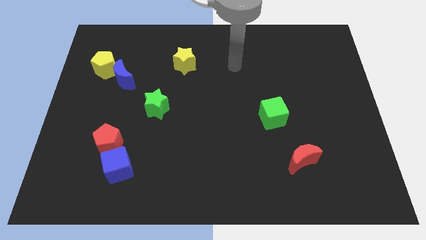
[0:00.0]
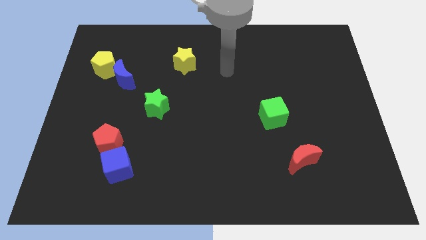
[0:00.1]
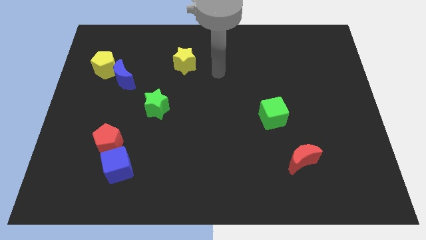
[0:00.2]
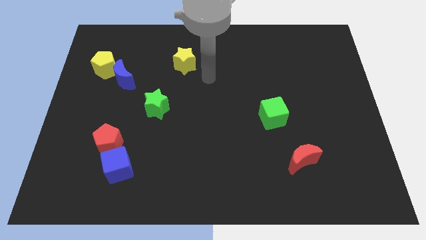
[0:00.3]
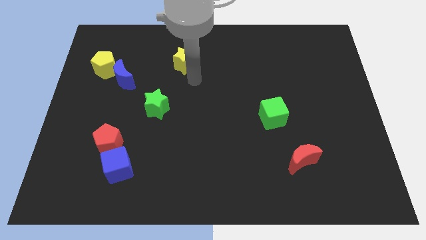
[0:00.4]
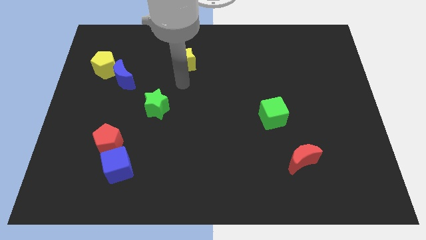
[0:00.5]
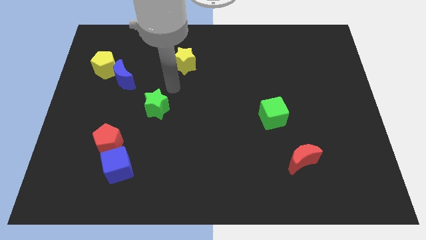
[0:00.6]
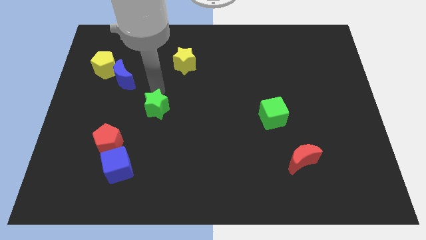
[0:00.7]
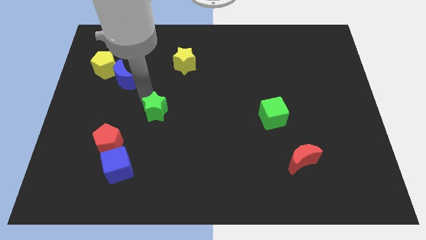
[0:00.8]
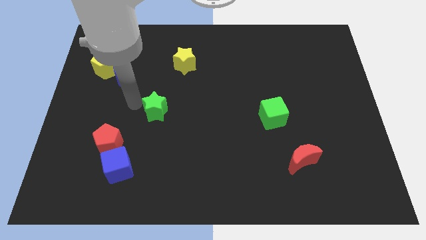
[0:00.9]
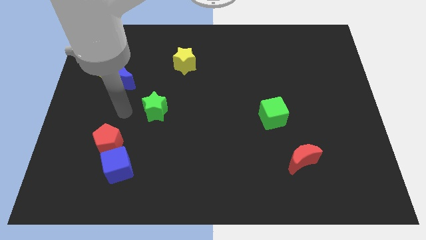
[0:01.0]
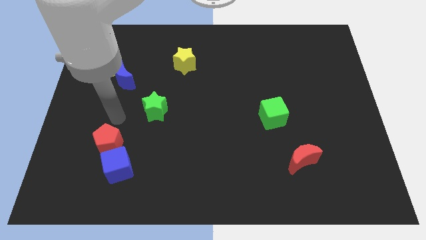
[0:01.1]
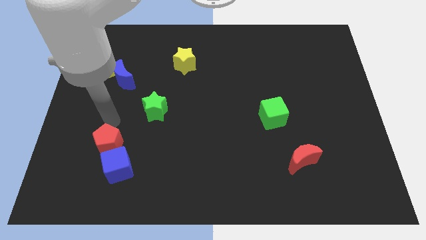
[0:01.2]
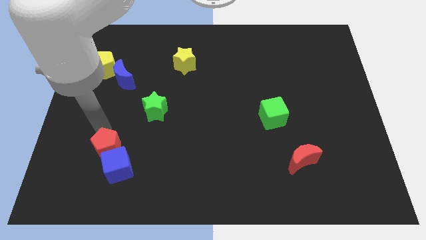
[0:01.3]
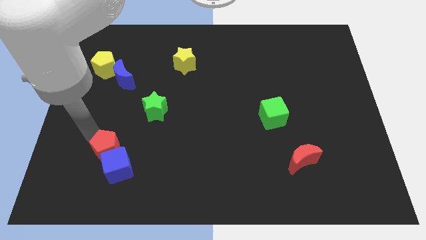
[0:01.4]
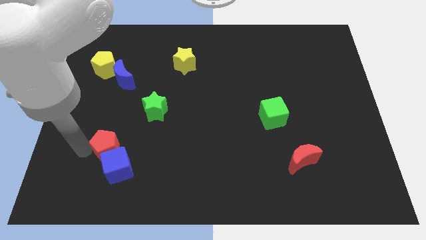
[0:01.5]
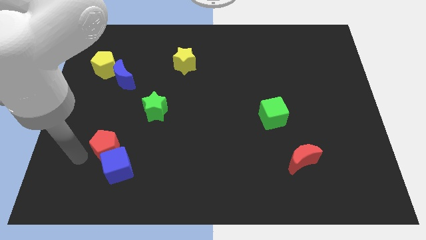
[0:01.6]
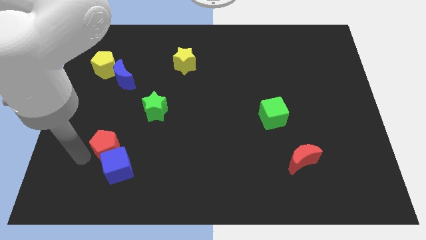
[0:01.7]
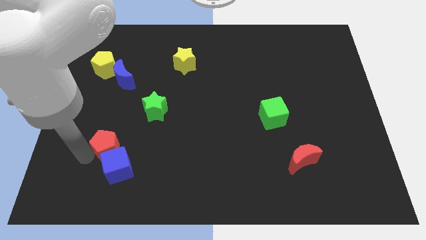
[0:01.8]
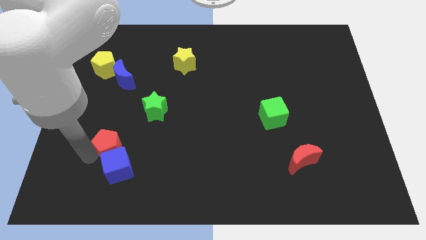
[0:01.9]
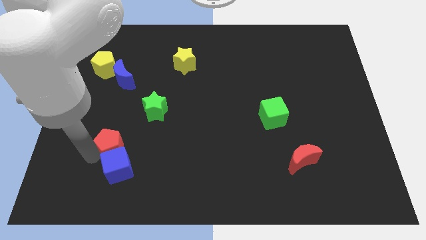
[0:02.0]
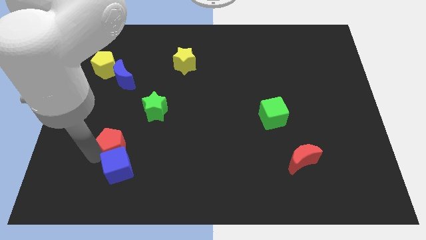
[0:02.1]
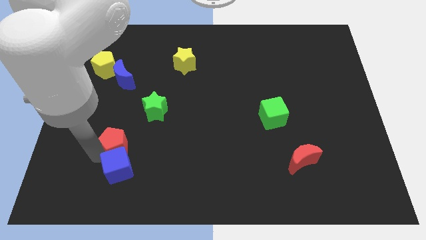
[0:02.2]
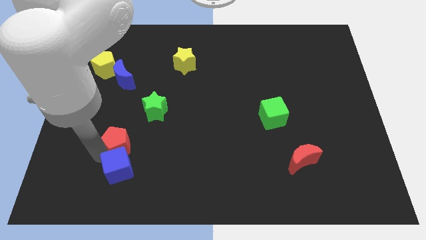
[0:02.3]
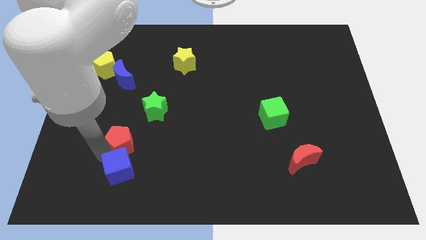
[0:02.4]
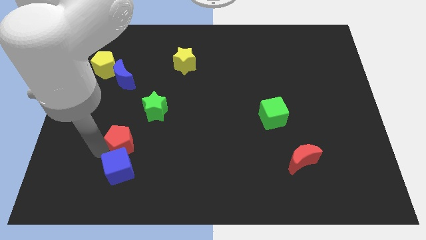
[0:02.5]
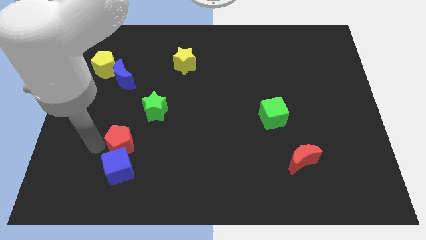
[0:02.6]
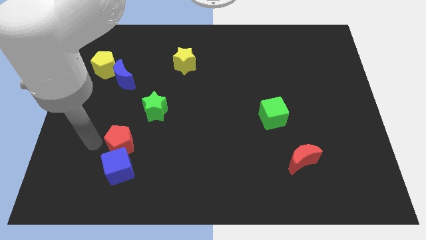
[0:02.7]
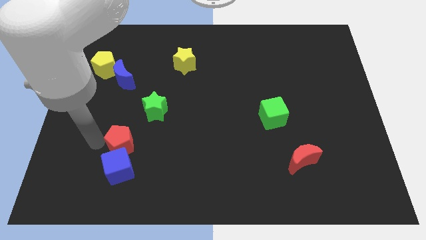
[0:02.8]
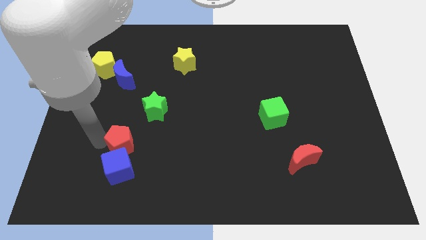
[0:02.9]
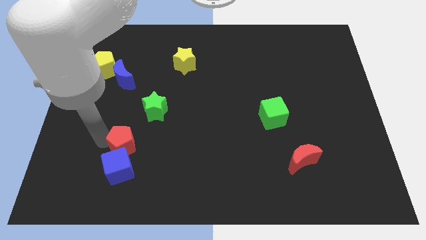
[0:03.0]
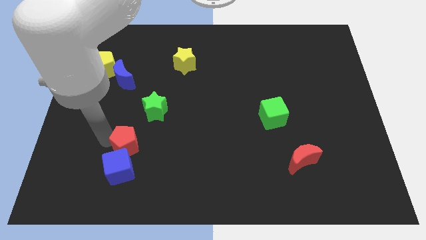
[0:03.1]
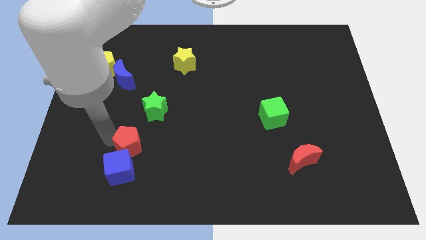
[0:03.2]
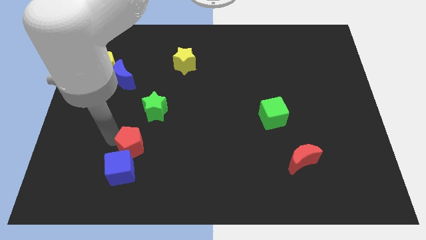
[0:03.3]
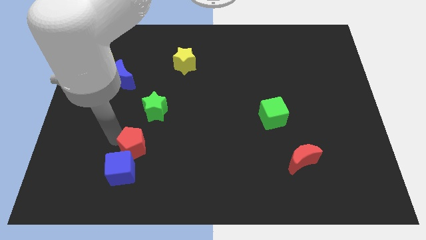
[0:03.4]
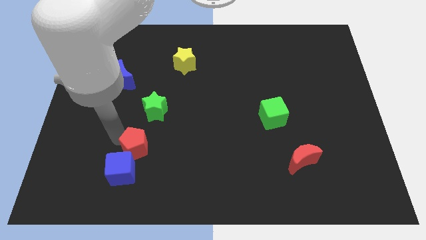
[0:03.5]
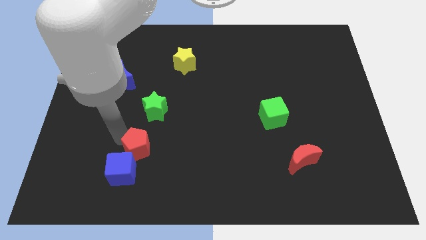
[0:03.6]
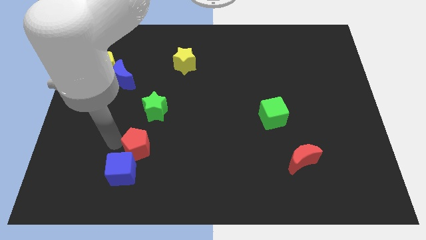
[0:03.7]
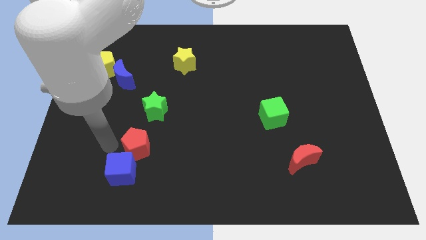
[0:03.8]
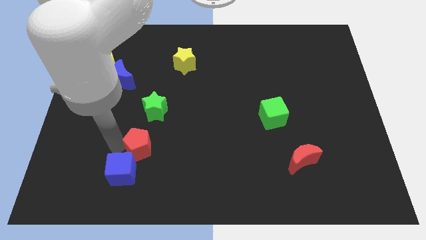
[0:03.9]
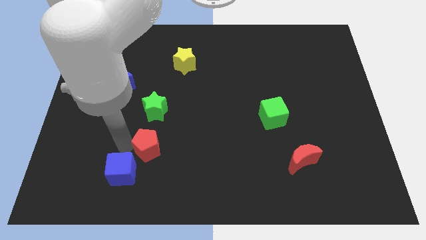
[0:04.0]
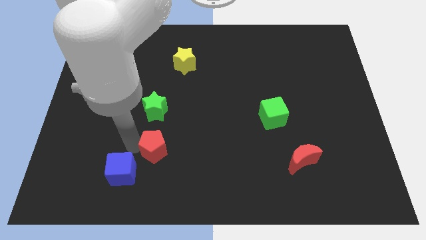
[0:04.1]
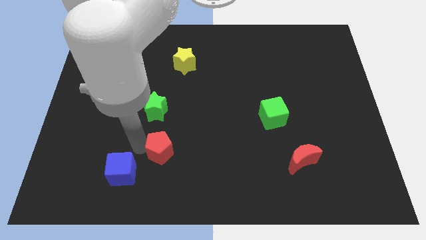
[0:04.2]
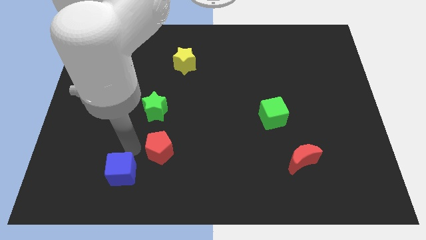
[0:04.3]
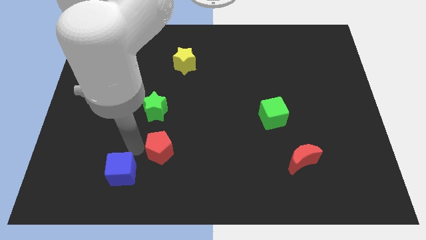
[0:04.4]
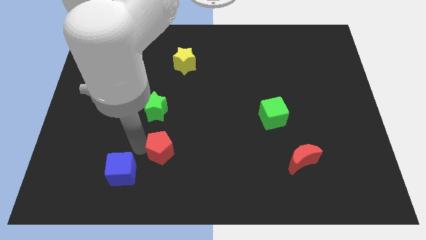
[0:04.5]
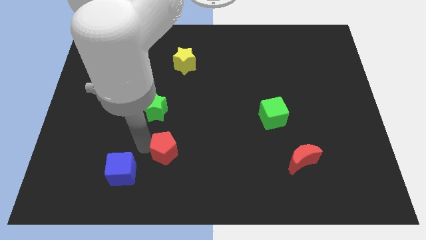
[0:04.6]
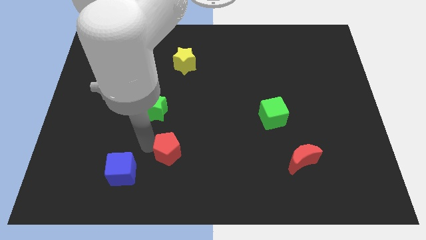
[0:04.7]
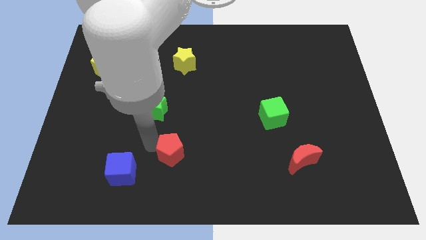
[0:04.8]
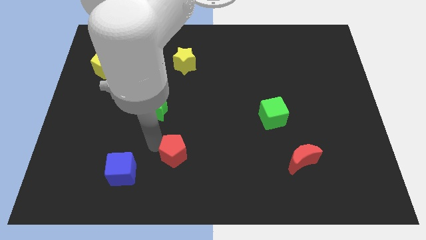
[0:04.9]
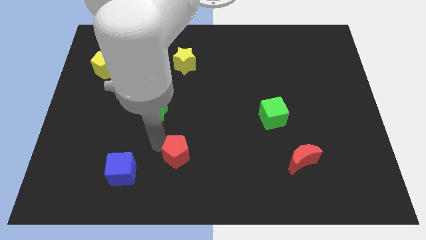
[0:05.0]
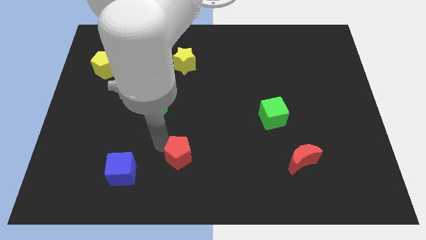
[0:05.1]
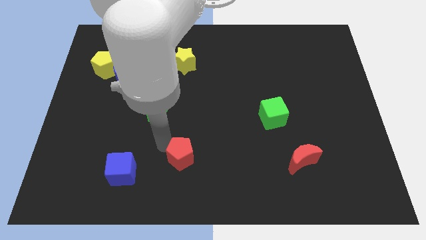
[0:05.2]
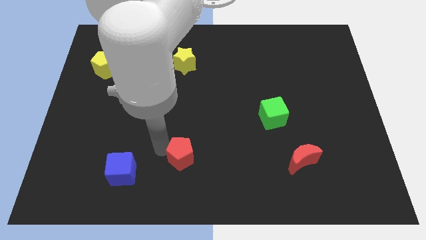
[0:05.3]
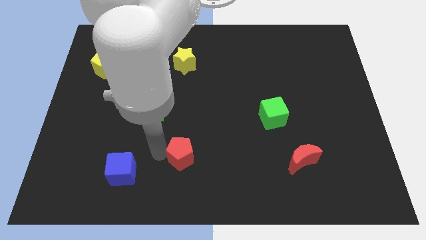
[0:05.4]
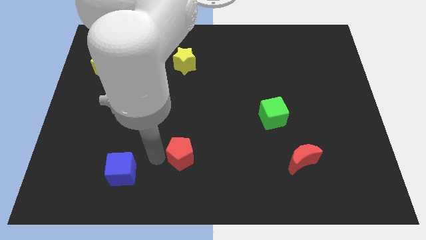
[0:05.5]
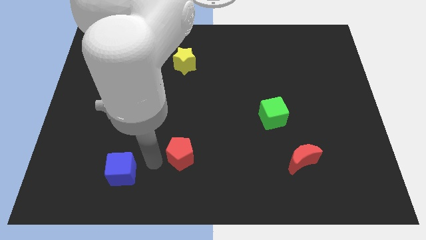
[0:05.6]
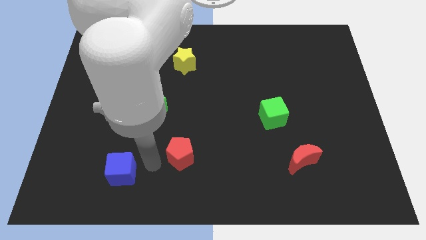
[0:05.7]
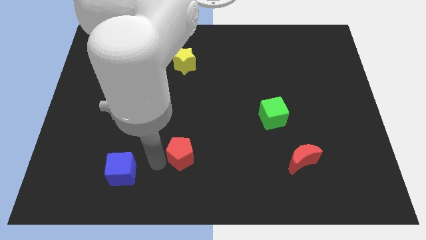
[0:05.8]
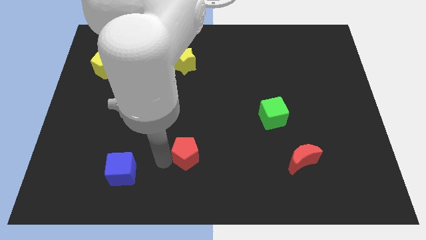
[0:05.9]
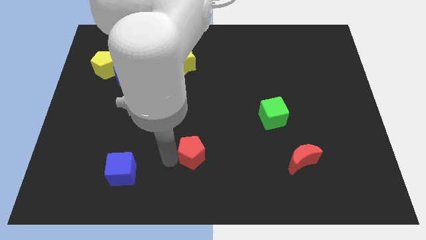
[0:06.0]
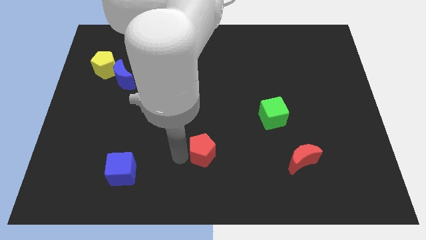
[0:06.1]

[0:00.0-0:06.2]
slide the red pentagon to the right

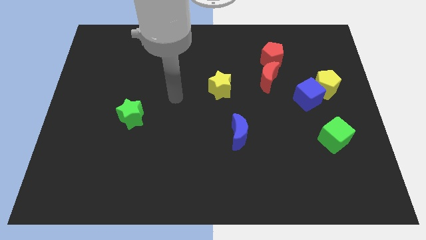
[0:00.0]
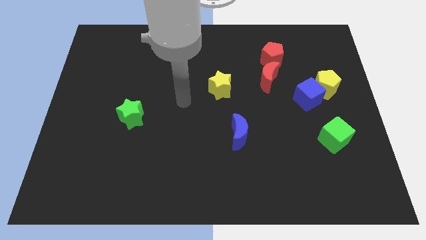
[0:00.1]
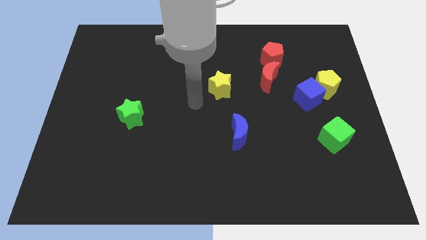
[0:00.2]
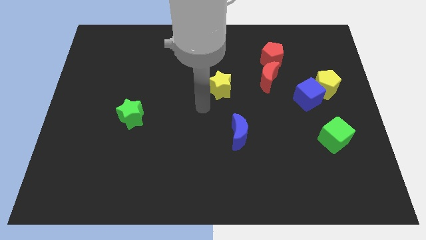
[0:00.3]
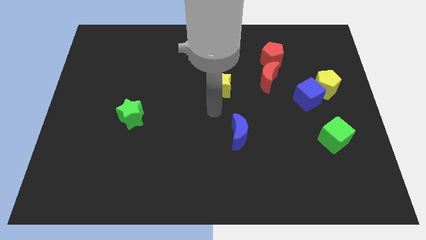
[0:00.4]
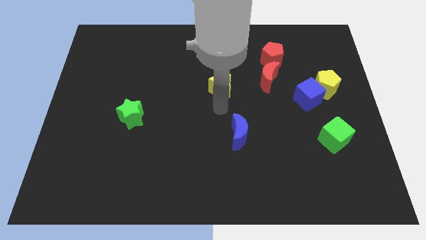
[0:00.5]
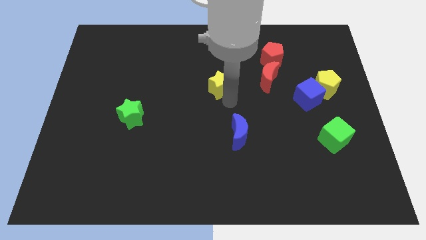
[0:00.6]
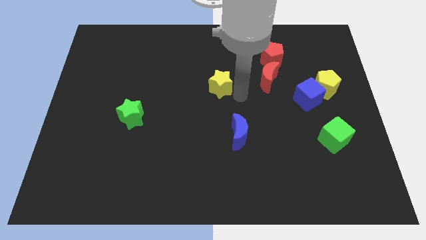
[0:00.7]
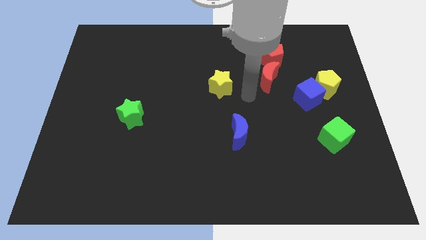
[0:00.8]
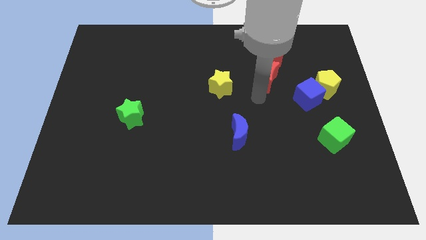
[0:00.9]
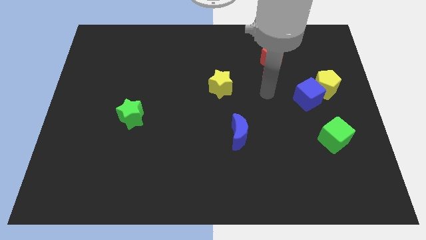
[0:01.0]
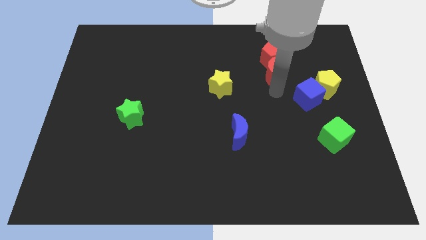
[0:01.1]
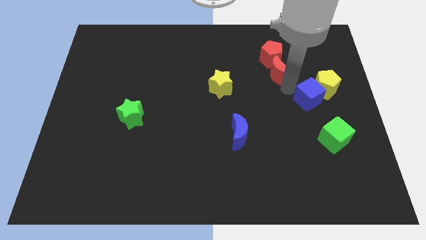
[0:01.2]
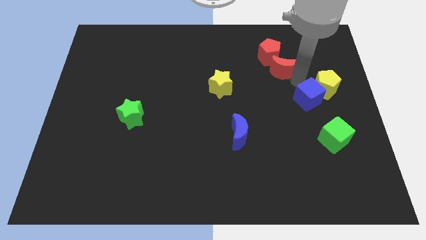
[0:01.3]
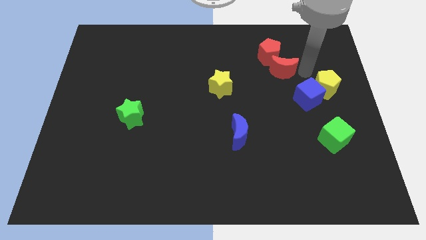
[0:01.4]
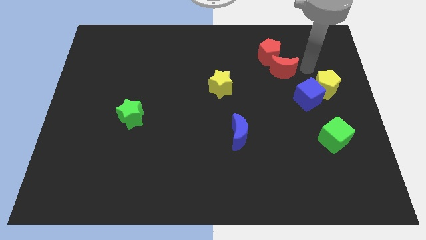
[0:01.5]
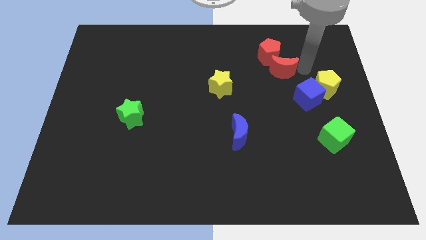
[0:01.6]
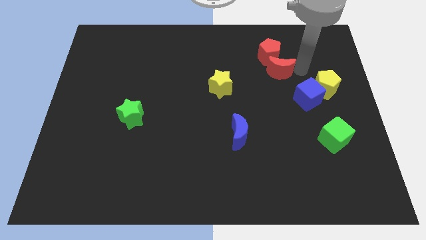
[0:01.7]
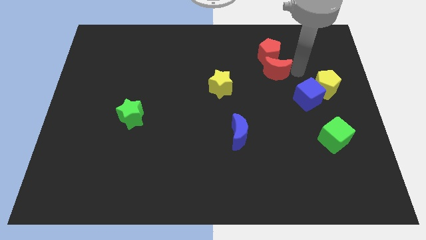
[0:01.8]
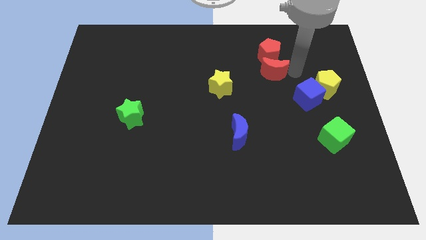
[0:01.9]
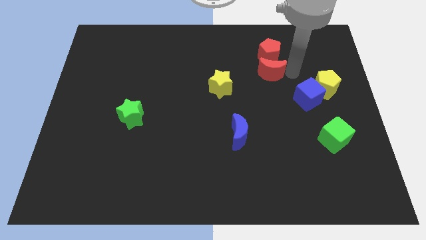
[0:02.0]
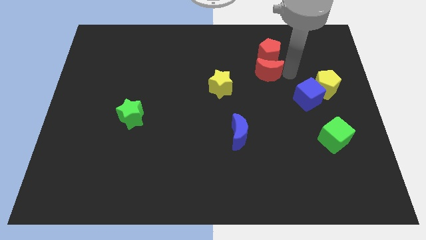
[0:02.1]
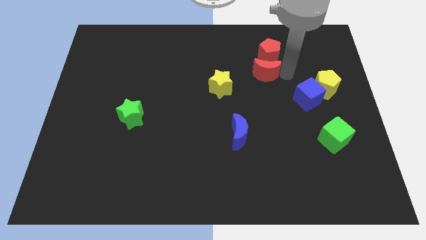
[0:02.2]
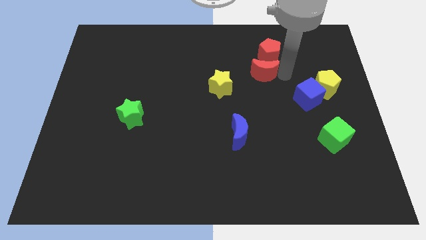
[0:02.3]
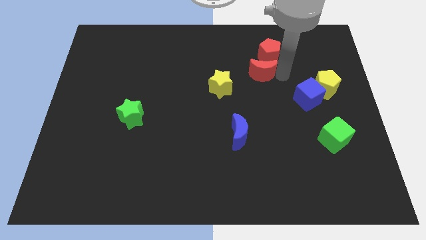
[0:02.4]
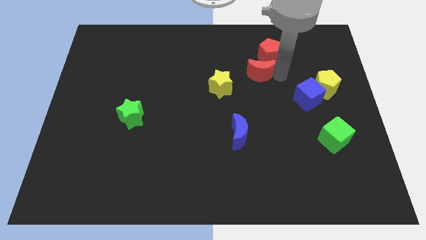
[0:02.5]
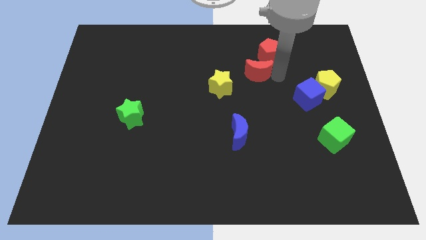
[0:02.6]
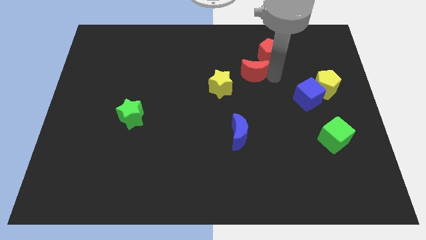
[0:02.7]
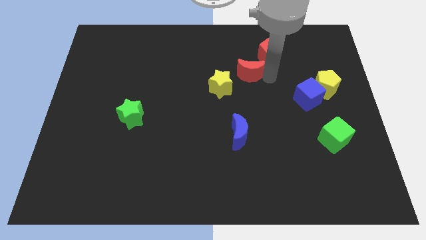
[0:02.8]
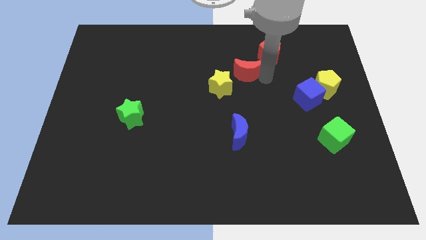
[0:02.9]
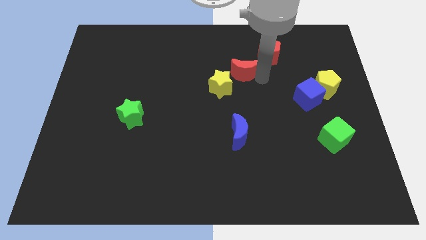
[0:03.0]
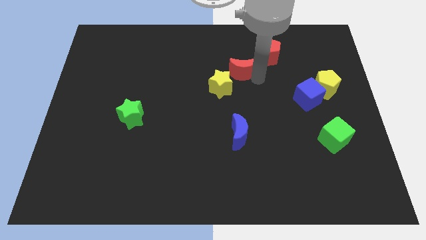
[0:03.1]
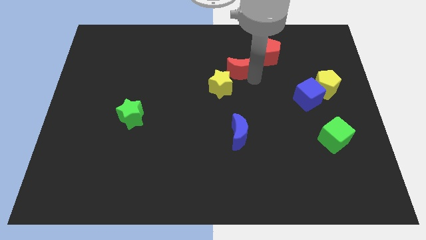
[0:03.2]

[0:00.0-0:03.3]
slightly move the red moon to the left
